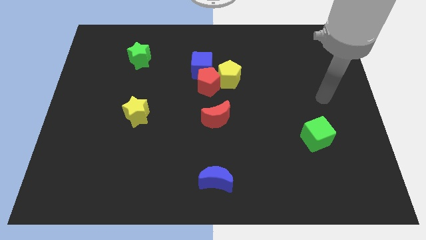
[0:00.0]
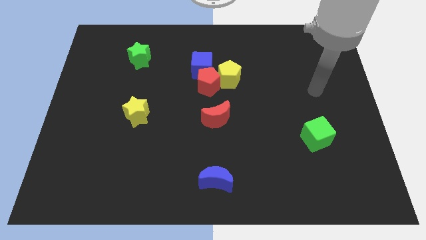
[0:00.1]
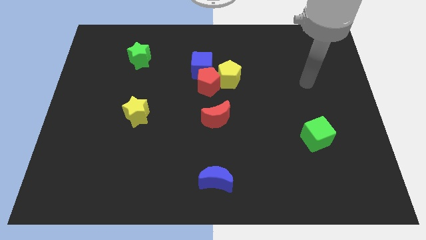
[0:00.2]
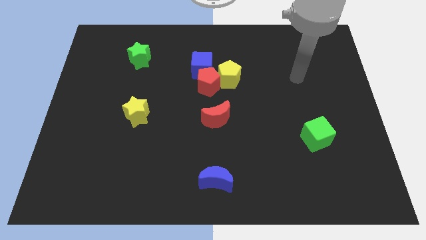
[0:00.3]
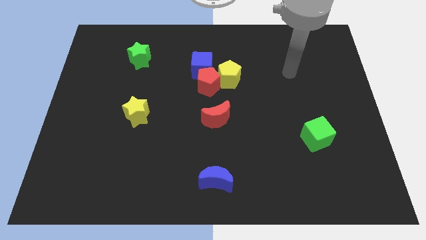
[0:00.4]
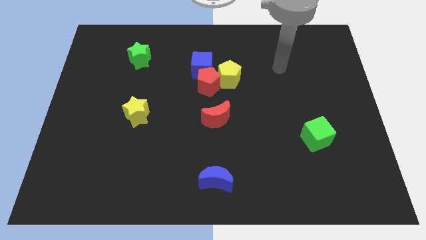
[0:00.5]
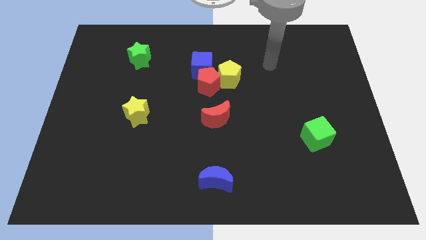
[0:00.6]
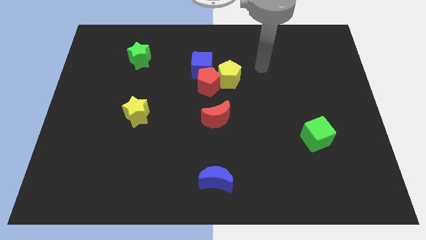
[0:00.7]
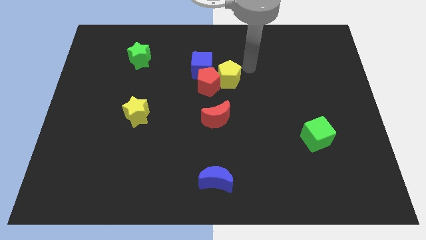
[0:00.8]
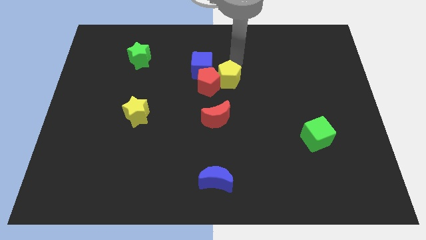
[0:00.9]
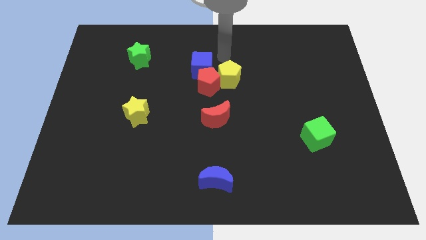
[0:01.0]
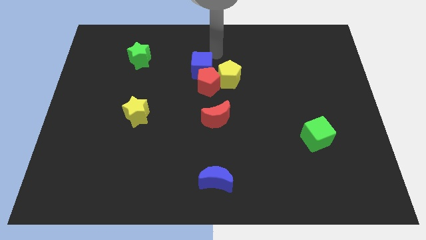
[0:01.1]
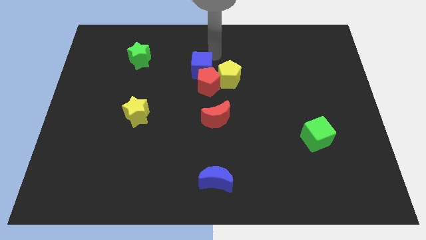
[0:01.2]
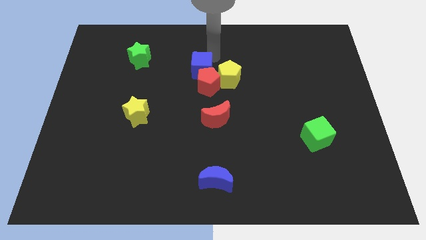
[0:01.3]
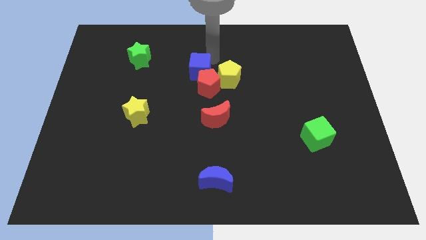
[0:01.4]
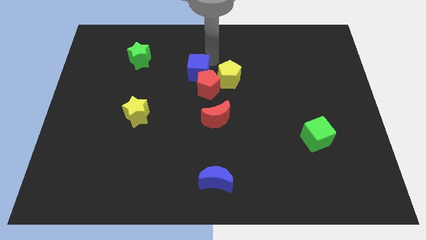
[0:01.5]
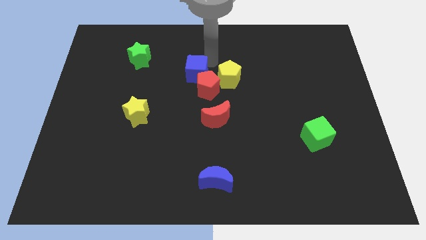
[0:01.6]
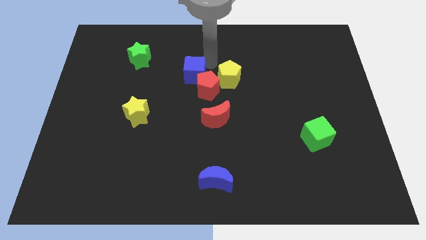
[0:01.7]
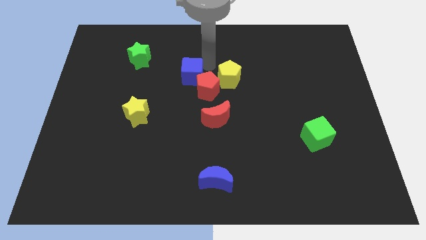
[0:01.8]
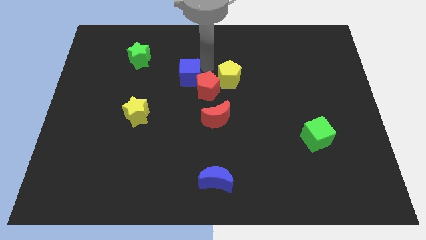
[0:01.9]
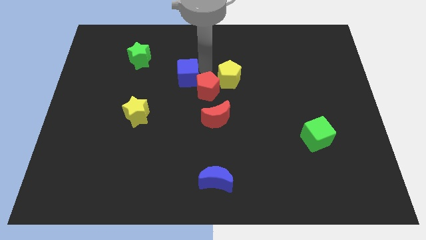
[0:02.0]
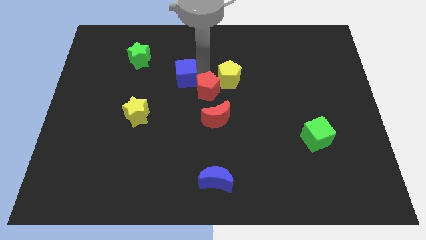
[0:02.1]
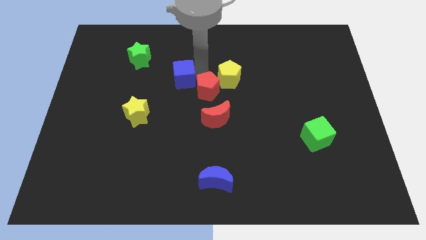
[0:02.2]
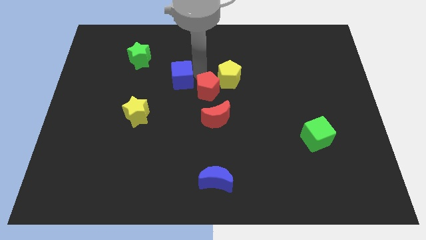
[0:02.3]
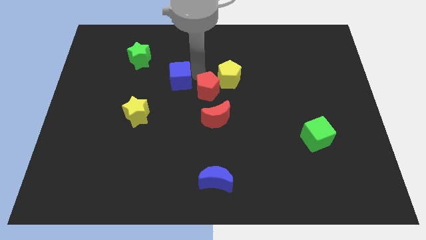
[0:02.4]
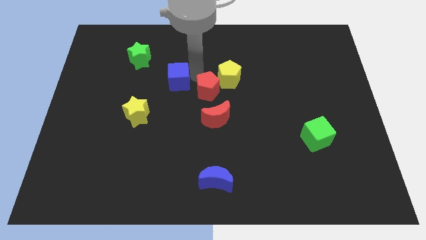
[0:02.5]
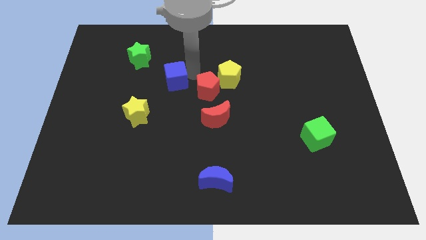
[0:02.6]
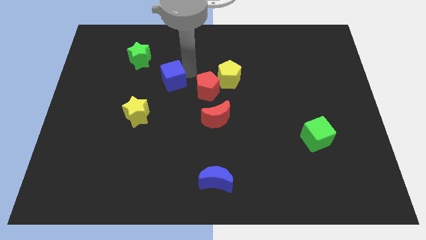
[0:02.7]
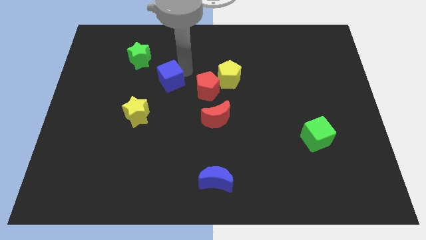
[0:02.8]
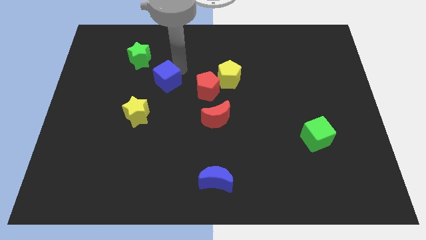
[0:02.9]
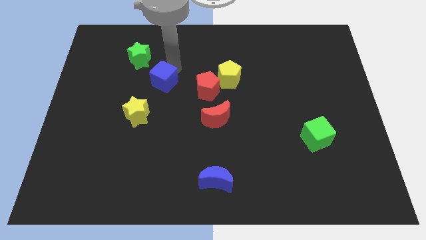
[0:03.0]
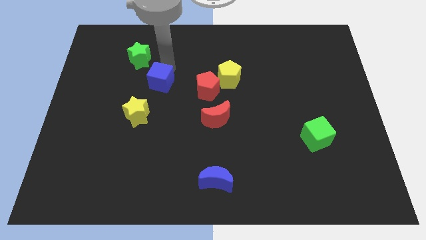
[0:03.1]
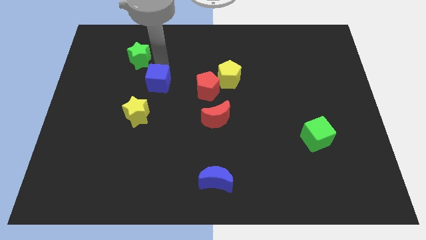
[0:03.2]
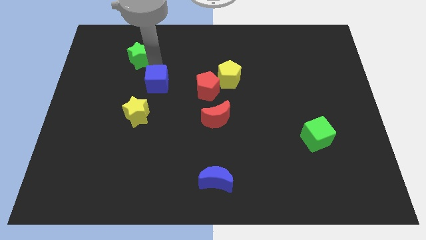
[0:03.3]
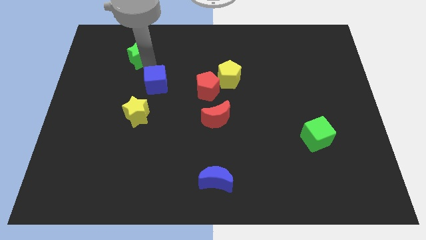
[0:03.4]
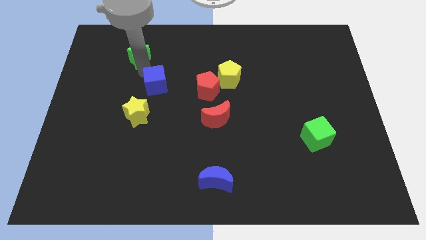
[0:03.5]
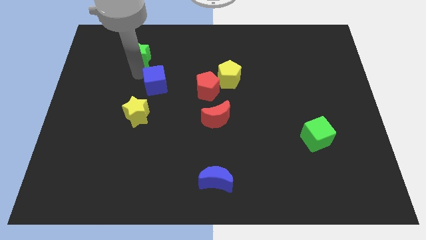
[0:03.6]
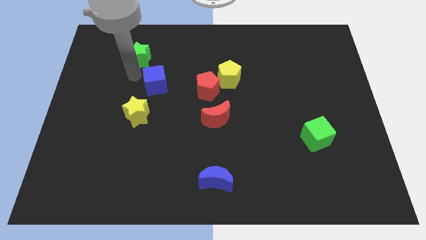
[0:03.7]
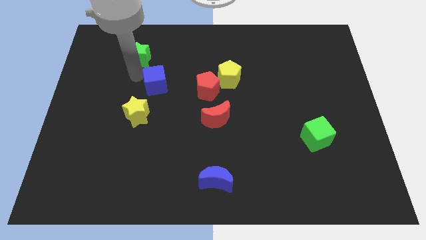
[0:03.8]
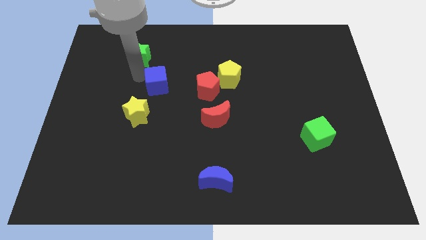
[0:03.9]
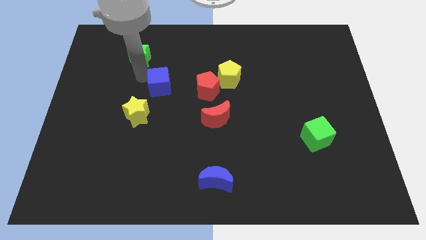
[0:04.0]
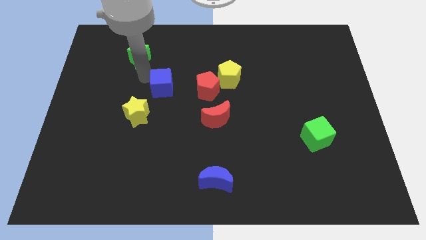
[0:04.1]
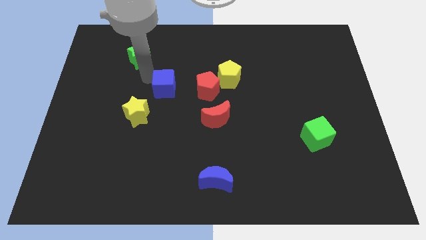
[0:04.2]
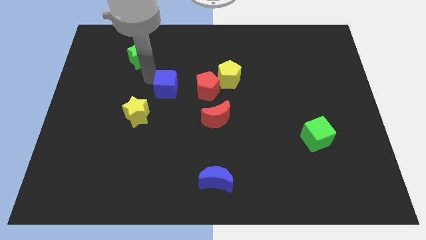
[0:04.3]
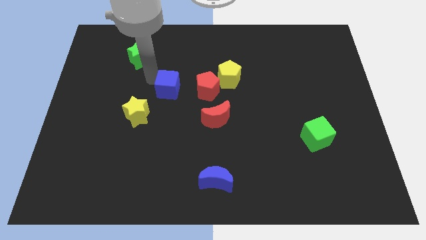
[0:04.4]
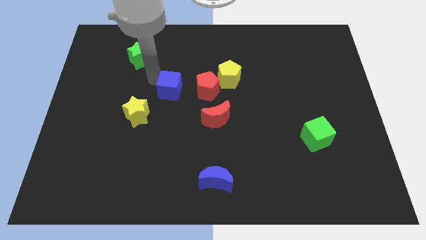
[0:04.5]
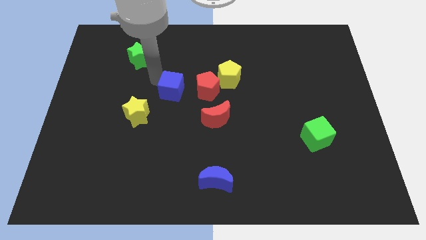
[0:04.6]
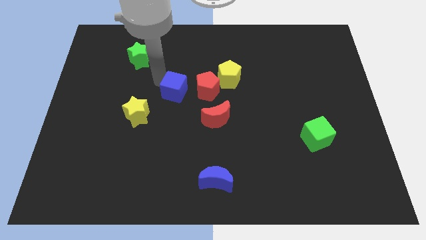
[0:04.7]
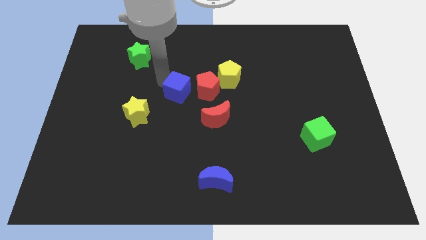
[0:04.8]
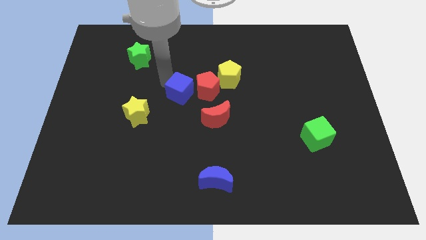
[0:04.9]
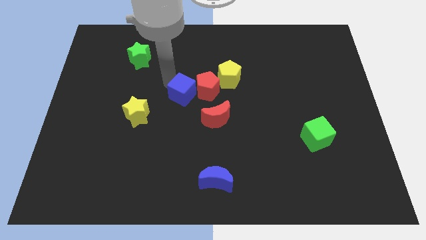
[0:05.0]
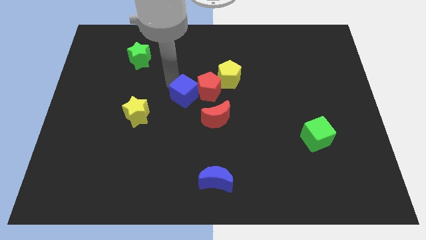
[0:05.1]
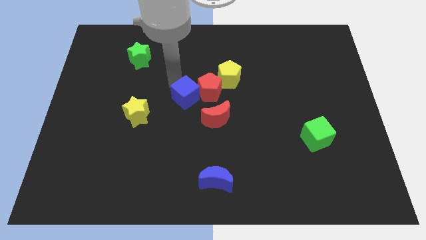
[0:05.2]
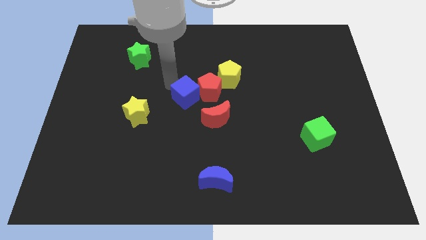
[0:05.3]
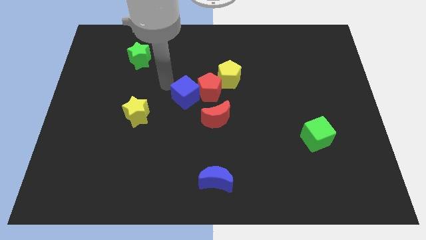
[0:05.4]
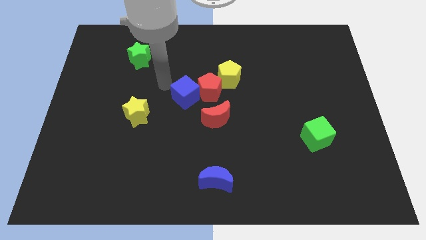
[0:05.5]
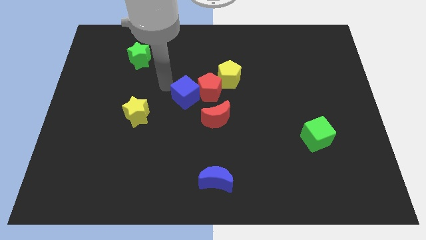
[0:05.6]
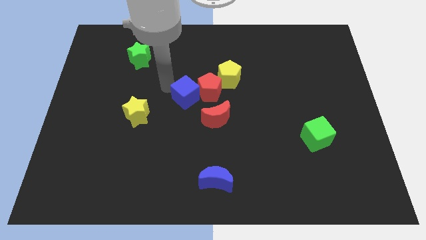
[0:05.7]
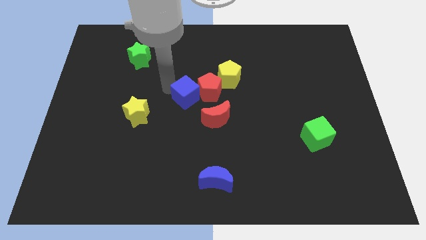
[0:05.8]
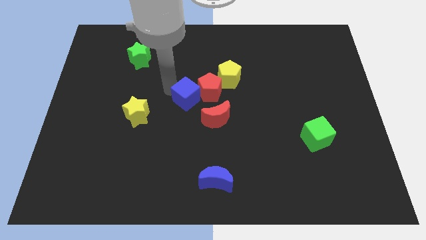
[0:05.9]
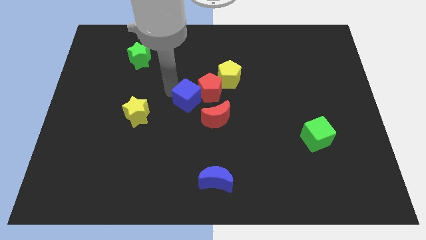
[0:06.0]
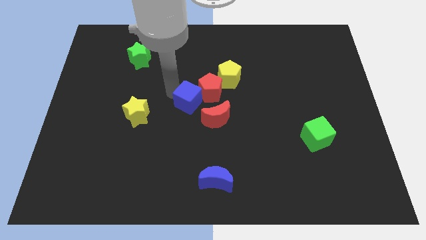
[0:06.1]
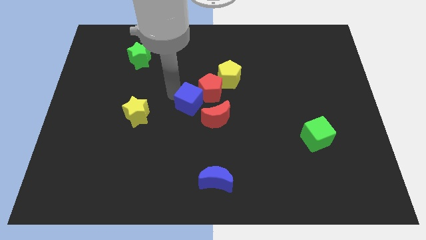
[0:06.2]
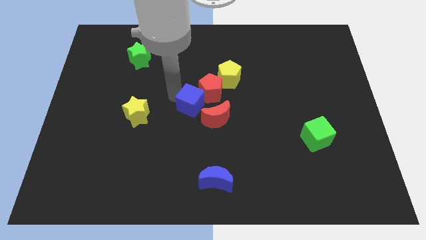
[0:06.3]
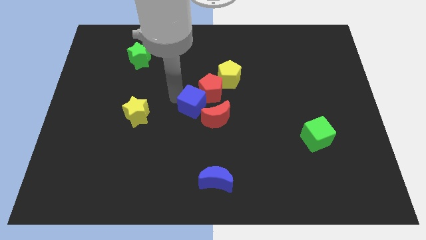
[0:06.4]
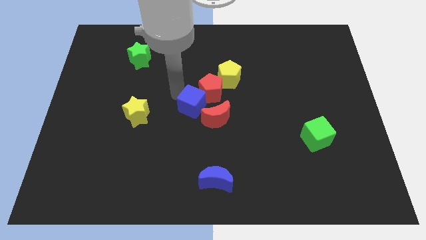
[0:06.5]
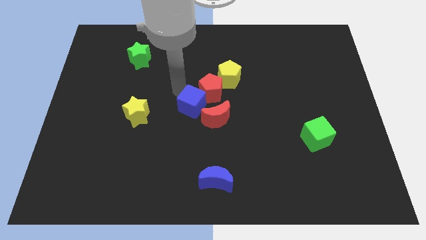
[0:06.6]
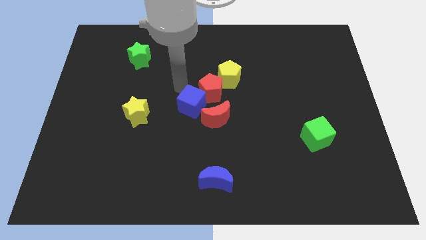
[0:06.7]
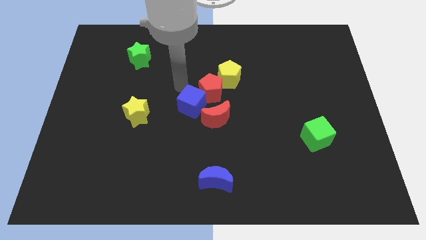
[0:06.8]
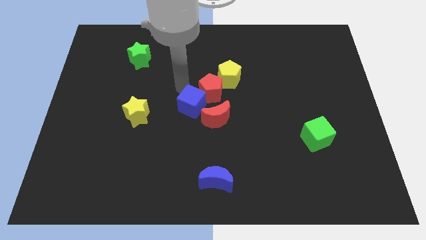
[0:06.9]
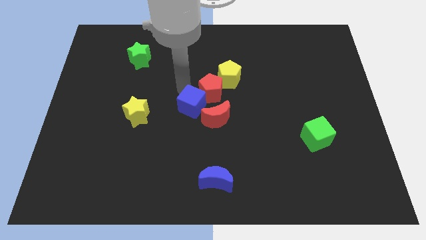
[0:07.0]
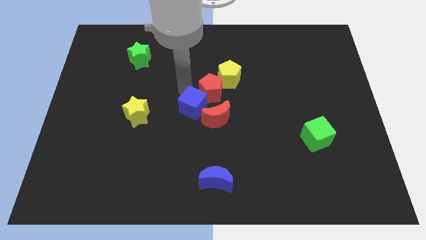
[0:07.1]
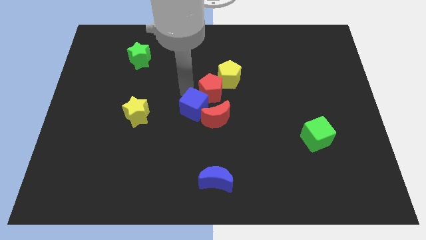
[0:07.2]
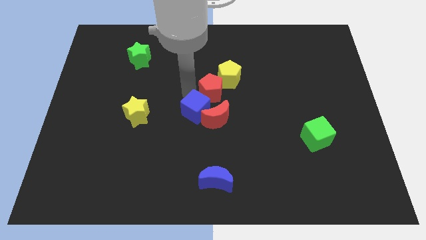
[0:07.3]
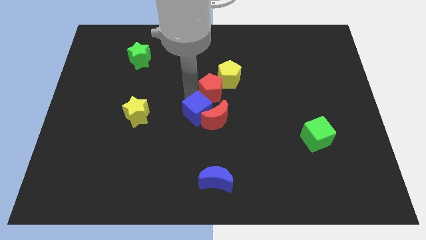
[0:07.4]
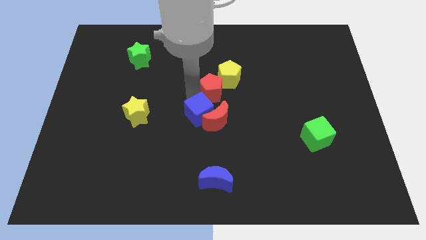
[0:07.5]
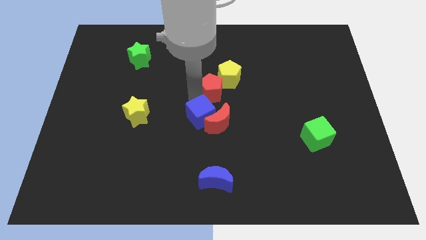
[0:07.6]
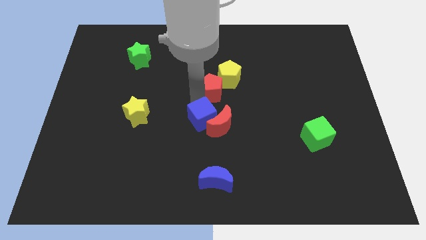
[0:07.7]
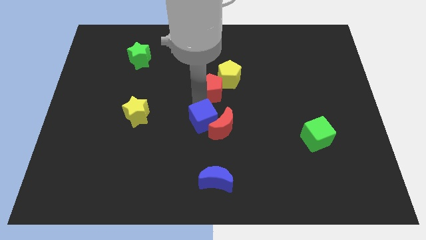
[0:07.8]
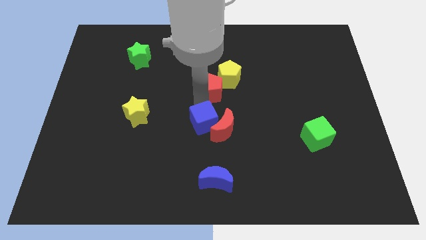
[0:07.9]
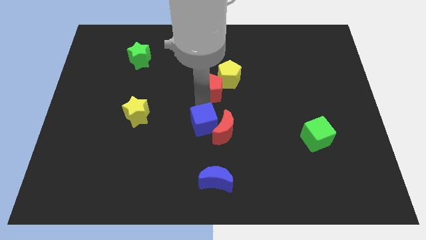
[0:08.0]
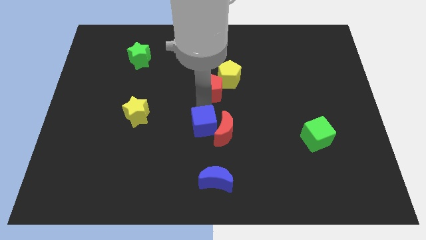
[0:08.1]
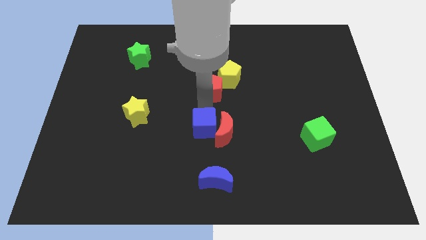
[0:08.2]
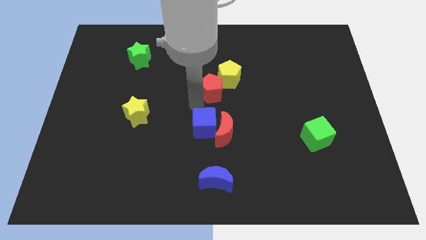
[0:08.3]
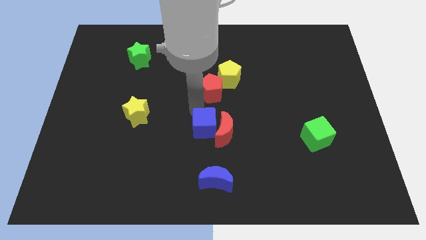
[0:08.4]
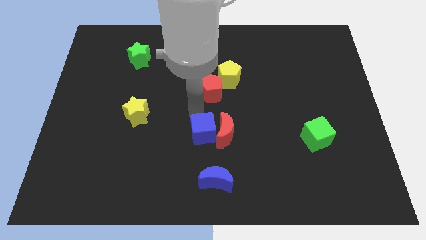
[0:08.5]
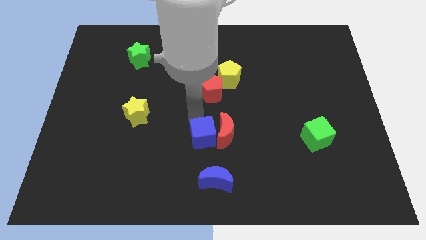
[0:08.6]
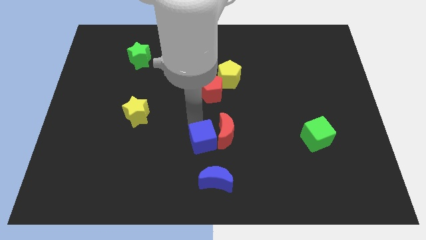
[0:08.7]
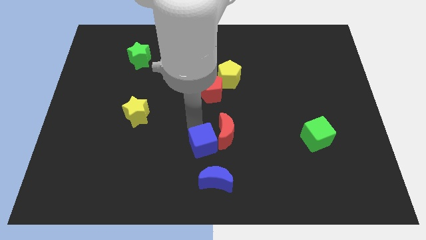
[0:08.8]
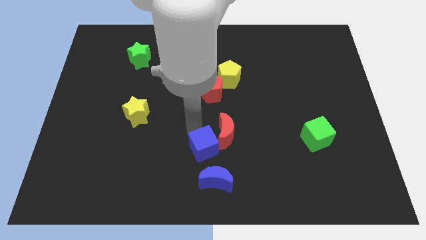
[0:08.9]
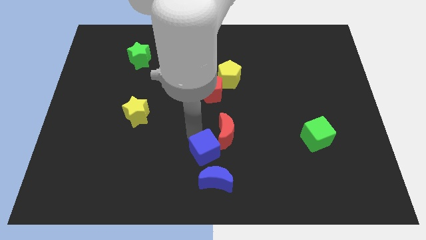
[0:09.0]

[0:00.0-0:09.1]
slide the blue cube below the red moon
